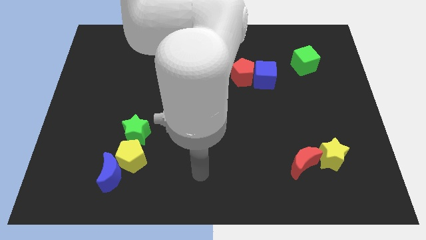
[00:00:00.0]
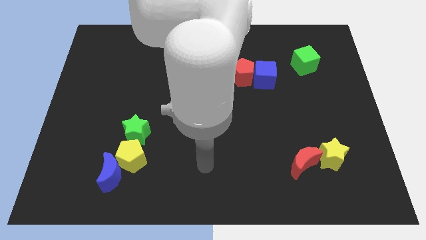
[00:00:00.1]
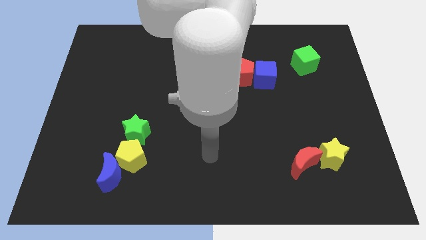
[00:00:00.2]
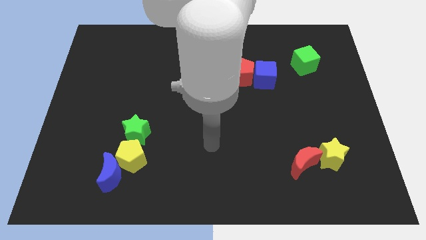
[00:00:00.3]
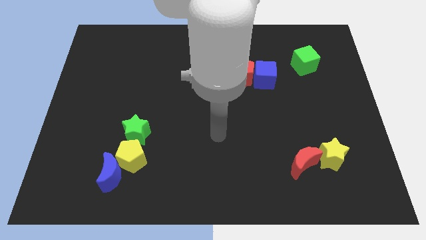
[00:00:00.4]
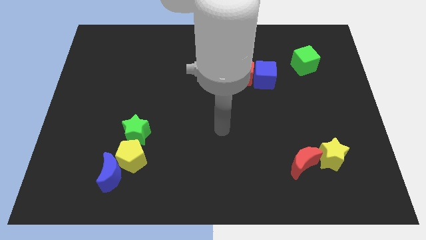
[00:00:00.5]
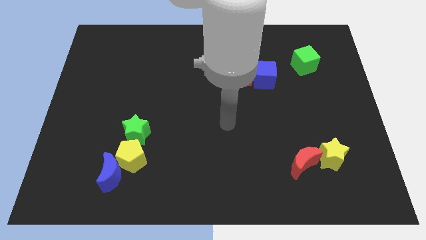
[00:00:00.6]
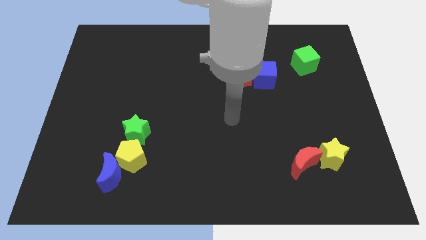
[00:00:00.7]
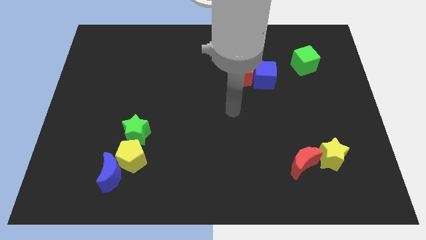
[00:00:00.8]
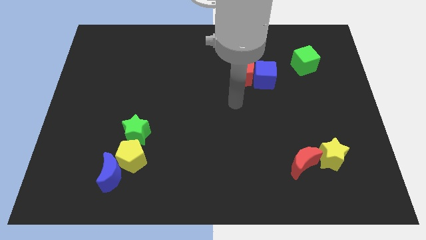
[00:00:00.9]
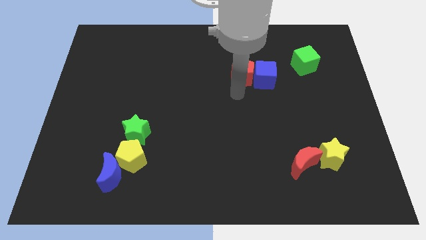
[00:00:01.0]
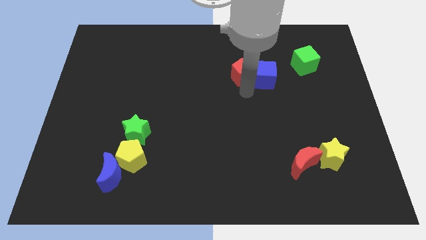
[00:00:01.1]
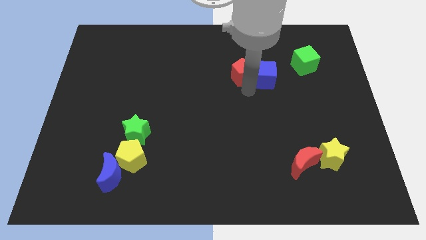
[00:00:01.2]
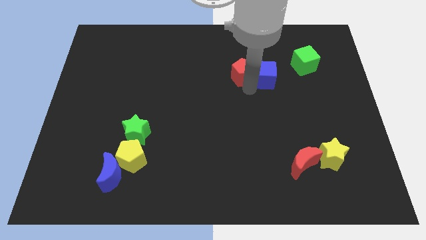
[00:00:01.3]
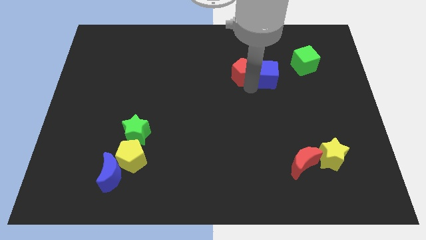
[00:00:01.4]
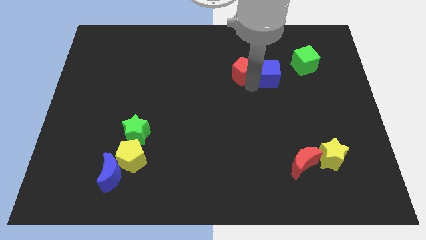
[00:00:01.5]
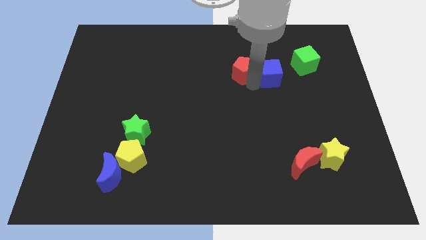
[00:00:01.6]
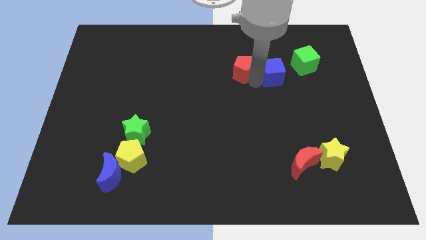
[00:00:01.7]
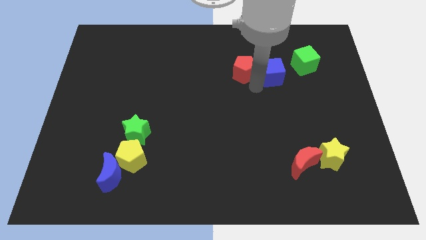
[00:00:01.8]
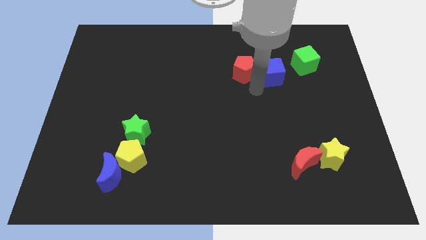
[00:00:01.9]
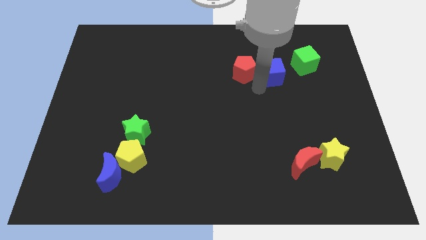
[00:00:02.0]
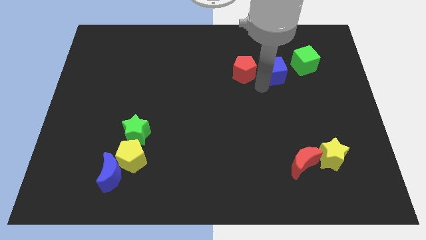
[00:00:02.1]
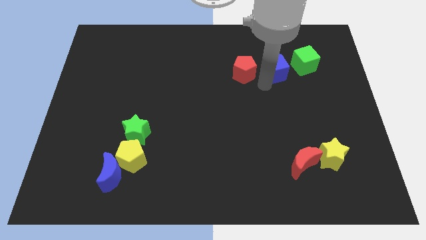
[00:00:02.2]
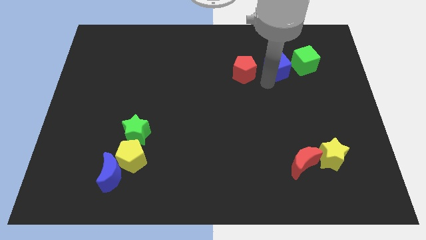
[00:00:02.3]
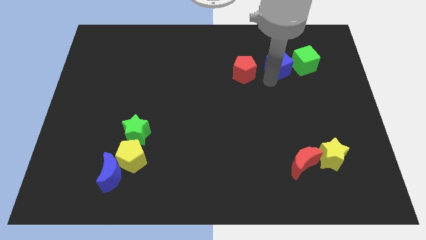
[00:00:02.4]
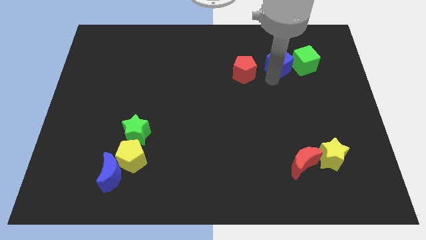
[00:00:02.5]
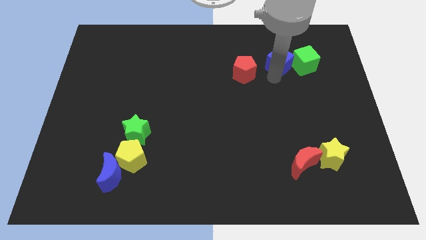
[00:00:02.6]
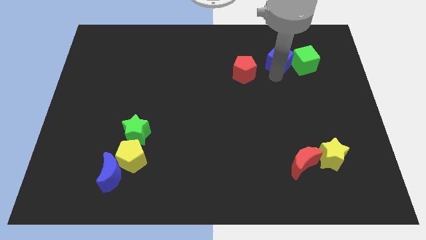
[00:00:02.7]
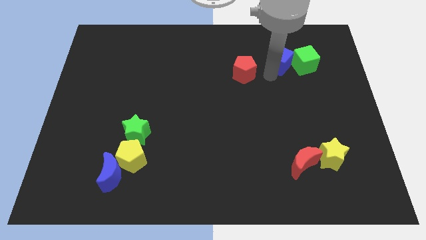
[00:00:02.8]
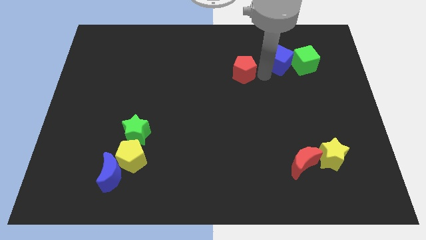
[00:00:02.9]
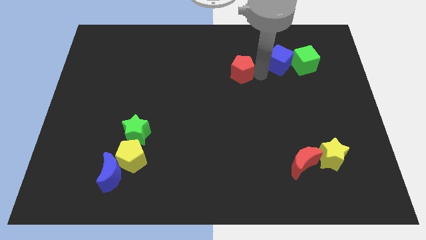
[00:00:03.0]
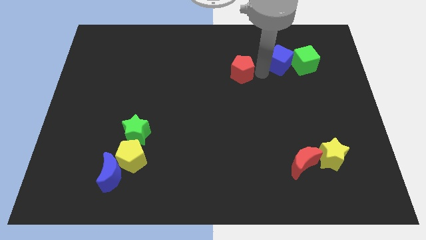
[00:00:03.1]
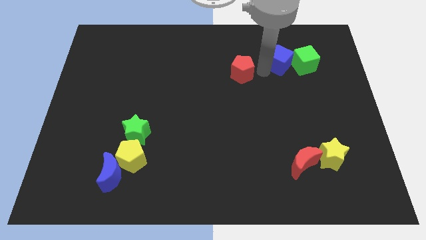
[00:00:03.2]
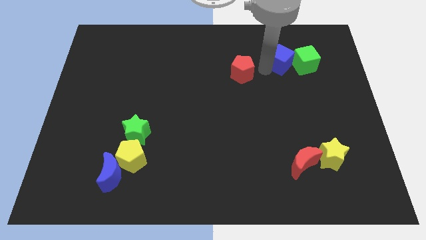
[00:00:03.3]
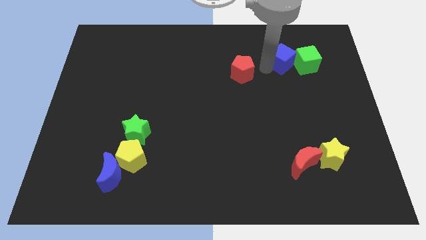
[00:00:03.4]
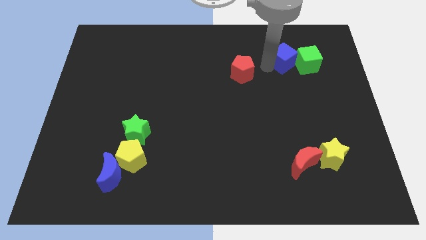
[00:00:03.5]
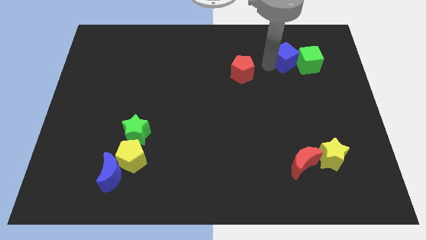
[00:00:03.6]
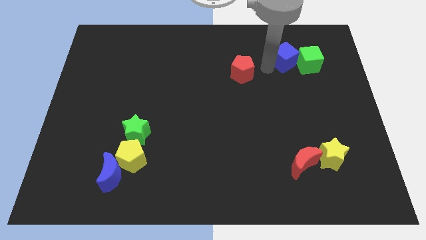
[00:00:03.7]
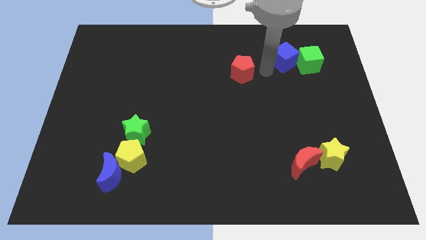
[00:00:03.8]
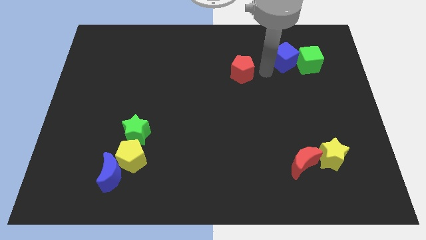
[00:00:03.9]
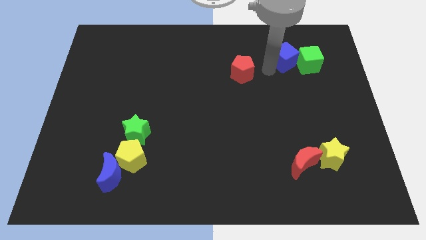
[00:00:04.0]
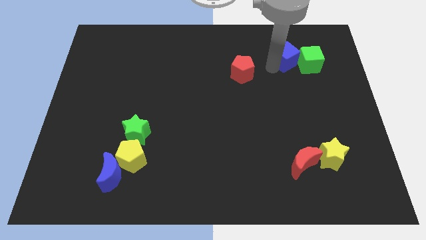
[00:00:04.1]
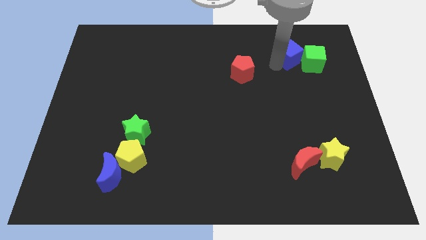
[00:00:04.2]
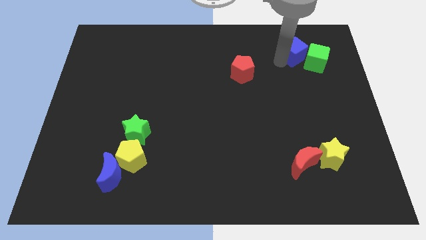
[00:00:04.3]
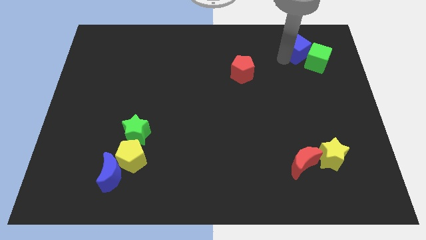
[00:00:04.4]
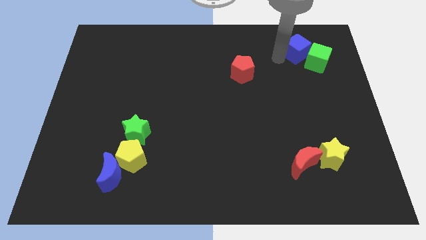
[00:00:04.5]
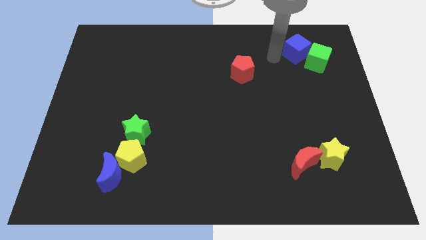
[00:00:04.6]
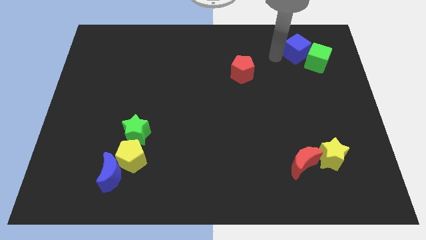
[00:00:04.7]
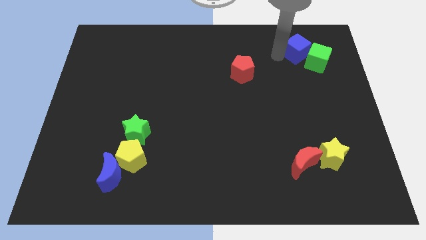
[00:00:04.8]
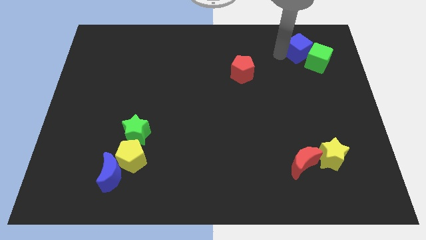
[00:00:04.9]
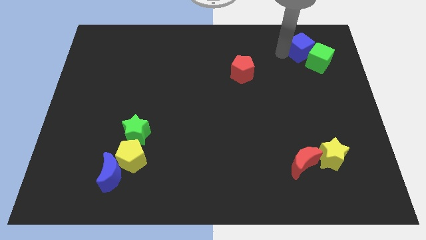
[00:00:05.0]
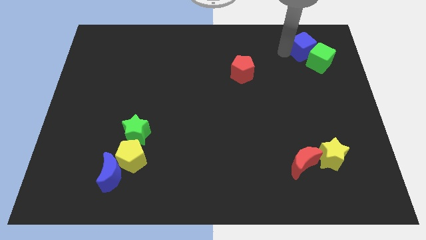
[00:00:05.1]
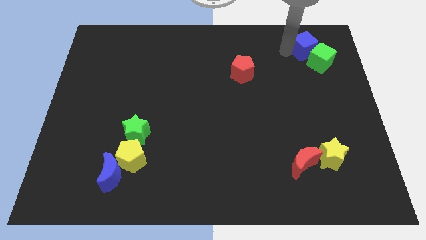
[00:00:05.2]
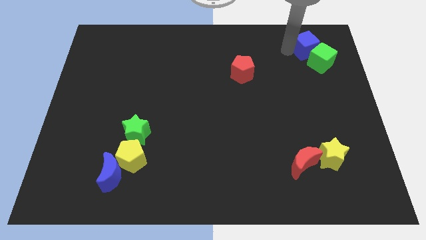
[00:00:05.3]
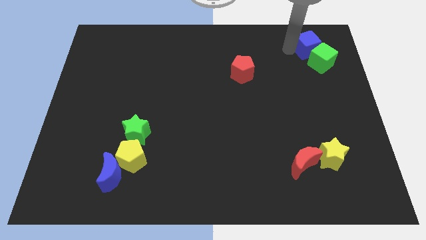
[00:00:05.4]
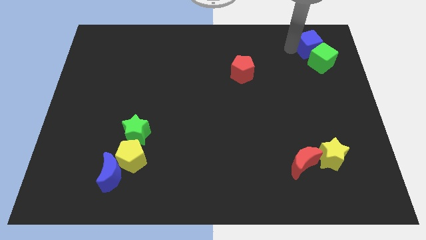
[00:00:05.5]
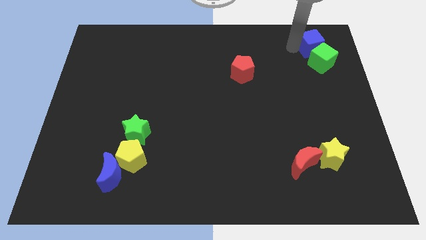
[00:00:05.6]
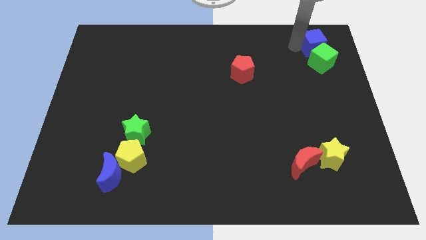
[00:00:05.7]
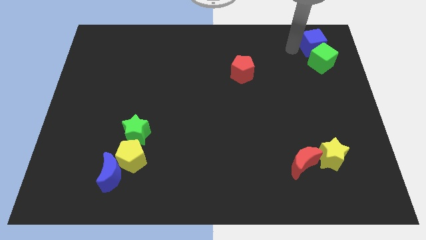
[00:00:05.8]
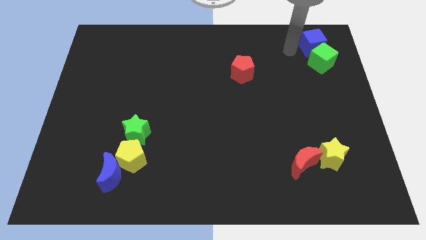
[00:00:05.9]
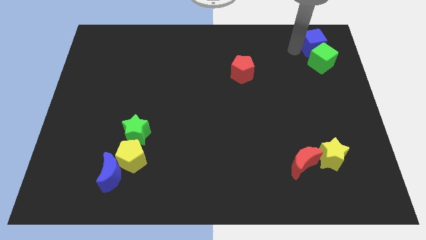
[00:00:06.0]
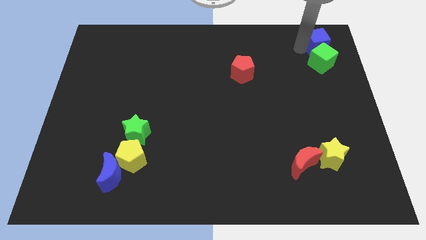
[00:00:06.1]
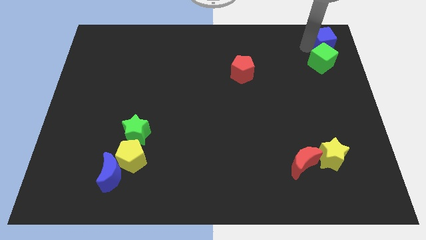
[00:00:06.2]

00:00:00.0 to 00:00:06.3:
put the blue cube to the upper right corner
